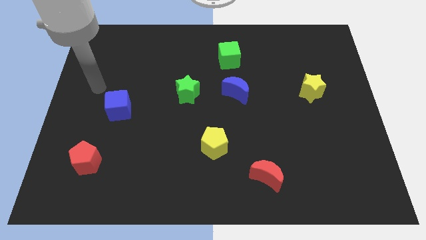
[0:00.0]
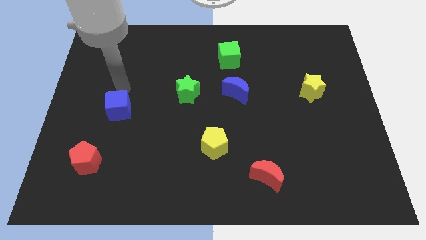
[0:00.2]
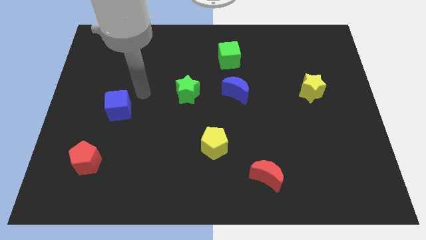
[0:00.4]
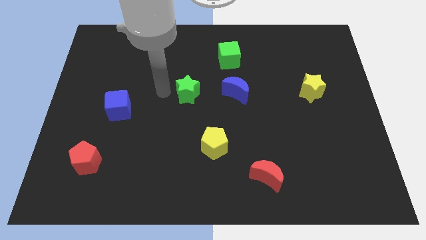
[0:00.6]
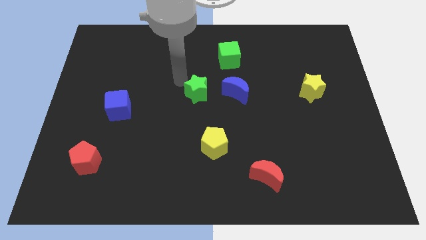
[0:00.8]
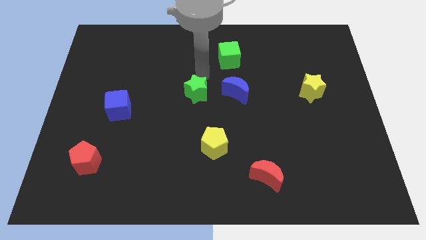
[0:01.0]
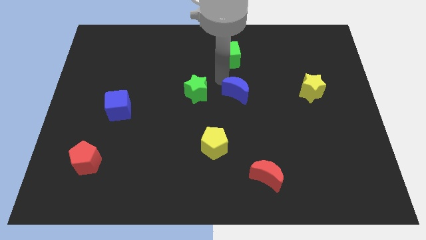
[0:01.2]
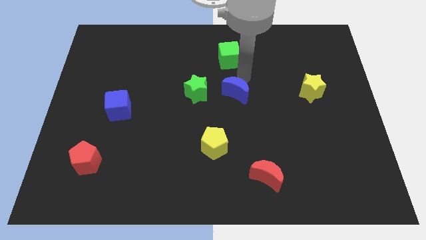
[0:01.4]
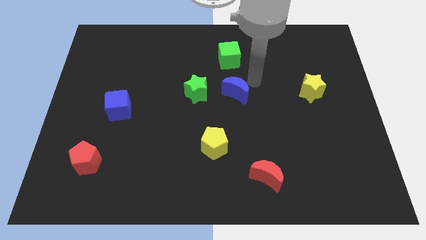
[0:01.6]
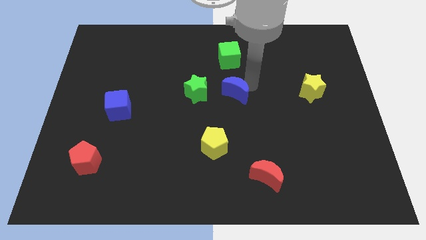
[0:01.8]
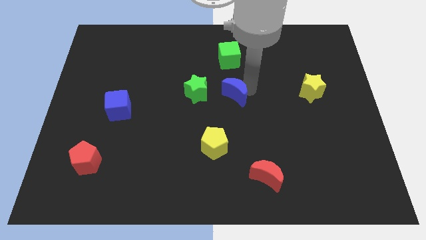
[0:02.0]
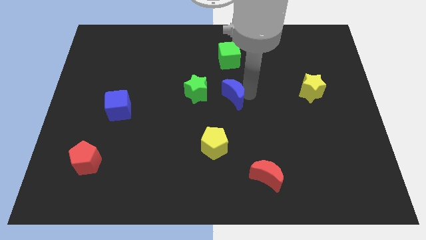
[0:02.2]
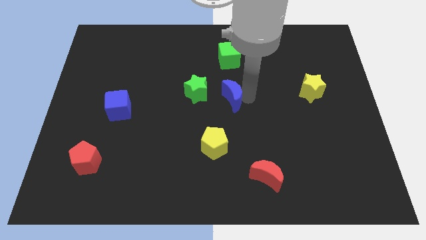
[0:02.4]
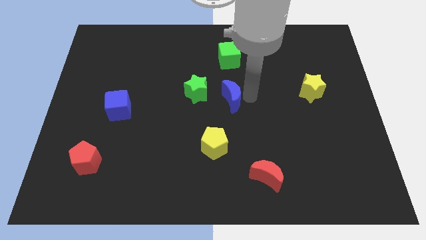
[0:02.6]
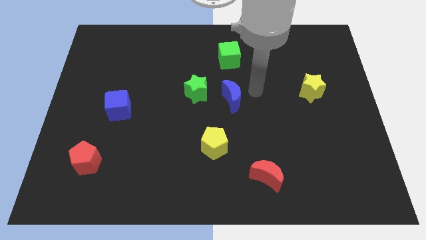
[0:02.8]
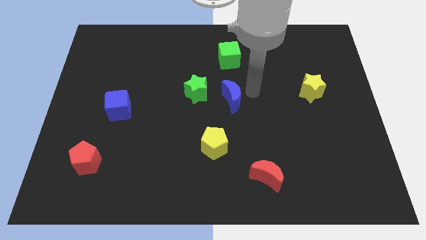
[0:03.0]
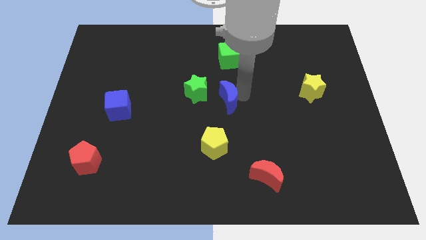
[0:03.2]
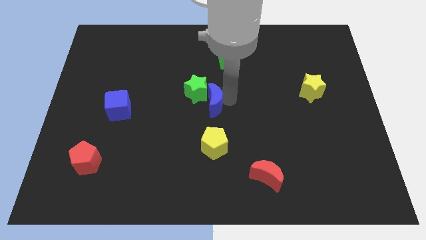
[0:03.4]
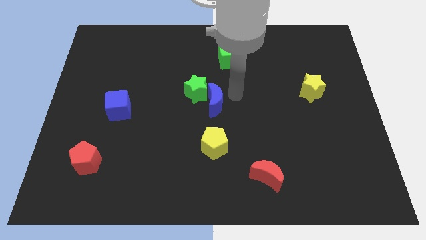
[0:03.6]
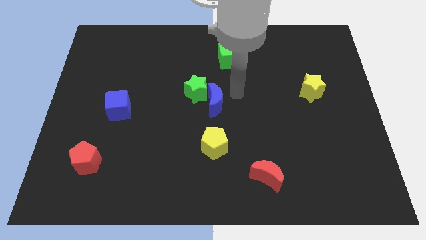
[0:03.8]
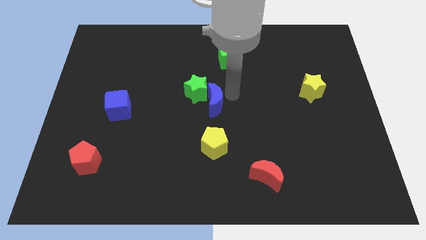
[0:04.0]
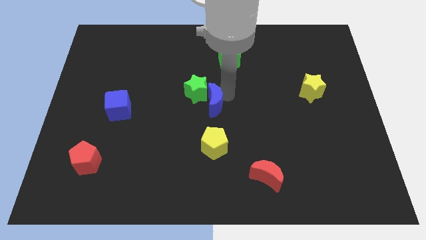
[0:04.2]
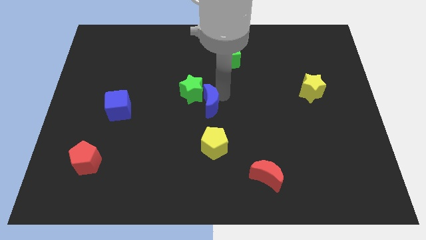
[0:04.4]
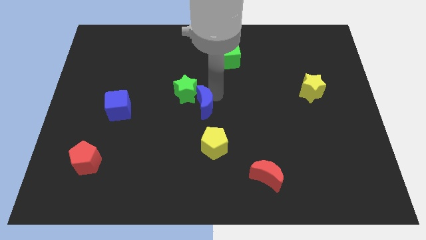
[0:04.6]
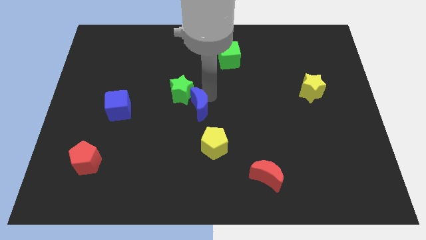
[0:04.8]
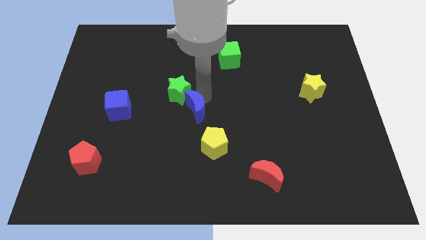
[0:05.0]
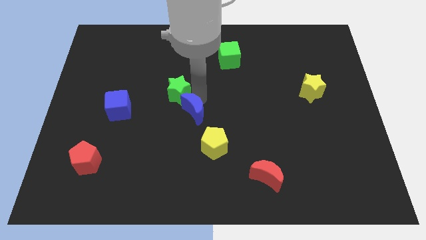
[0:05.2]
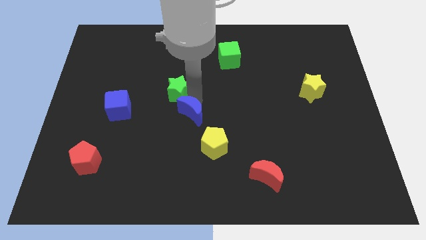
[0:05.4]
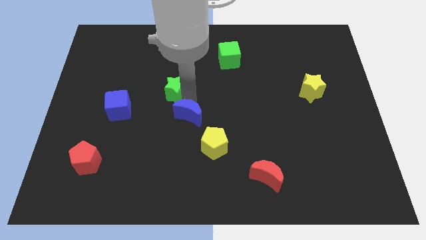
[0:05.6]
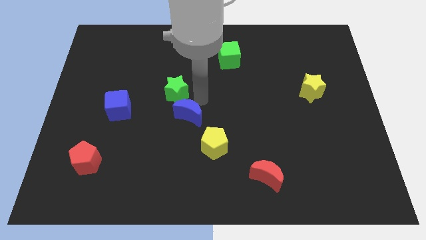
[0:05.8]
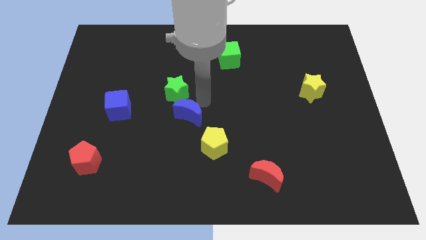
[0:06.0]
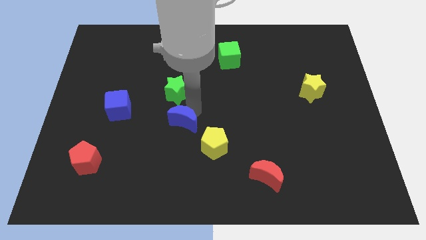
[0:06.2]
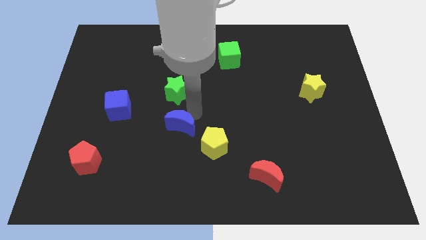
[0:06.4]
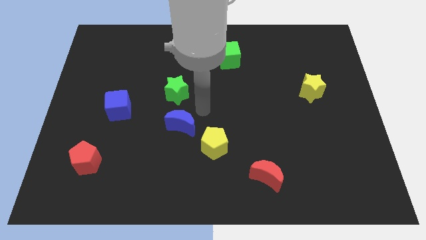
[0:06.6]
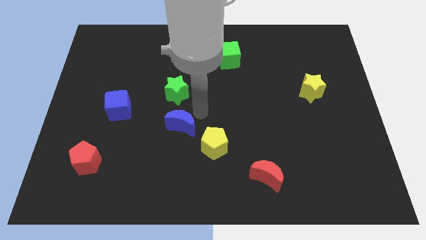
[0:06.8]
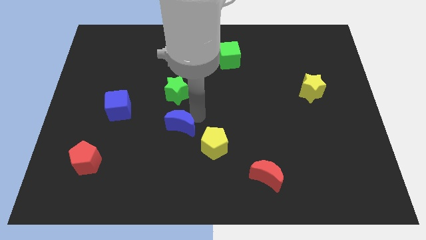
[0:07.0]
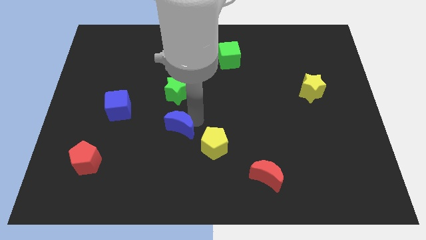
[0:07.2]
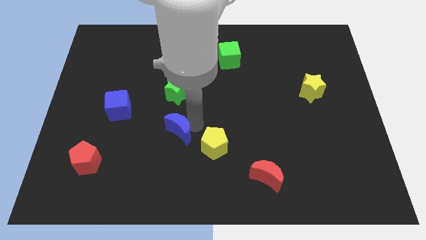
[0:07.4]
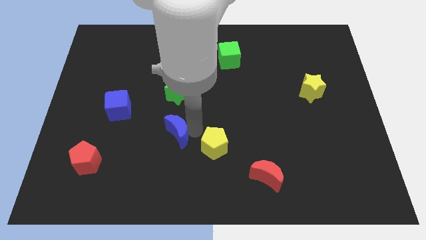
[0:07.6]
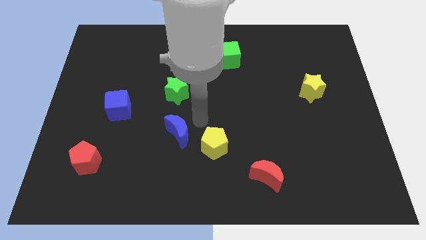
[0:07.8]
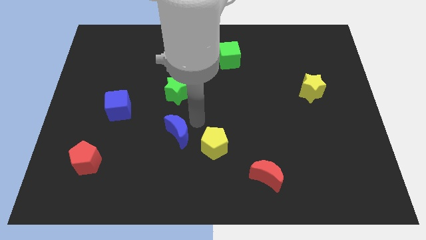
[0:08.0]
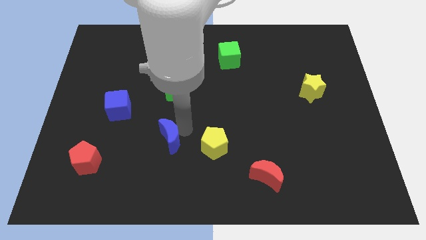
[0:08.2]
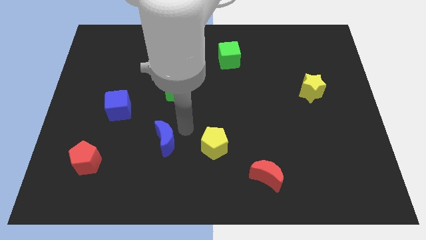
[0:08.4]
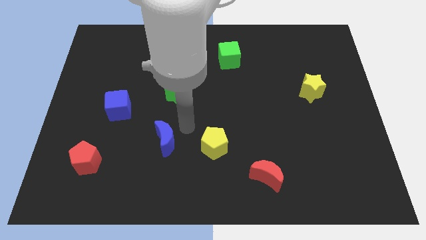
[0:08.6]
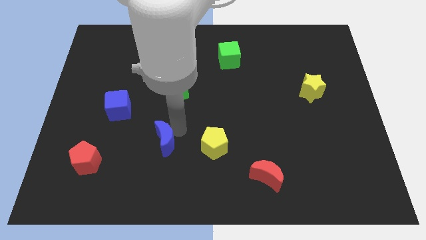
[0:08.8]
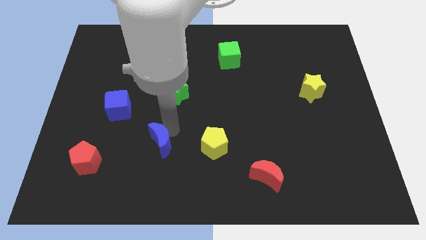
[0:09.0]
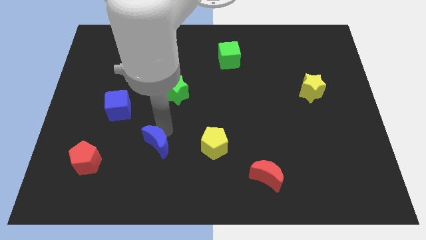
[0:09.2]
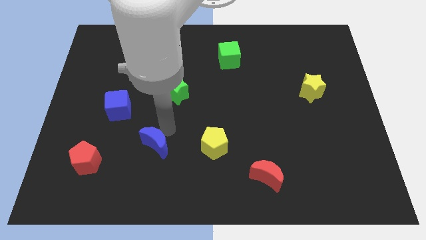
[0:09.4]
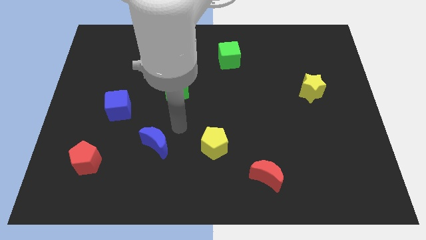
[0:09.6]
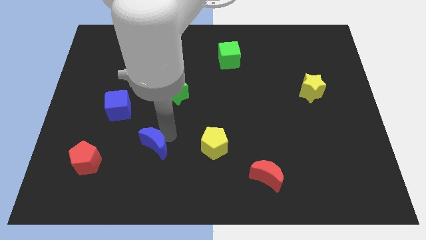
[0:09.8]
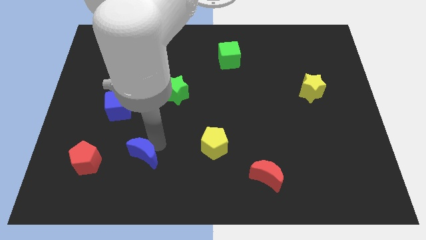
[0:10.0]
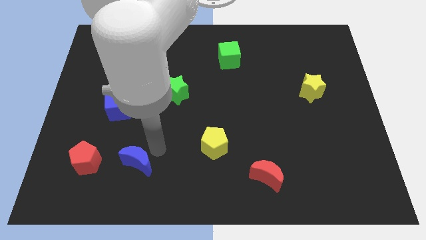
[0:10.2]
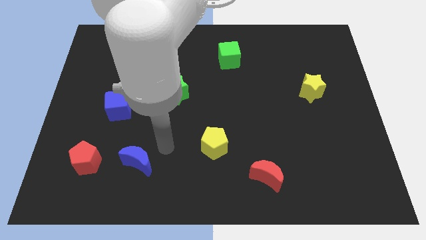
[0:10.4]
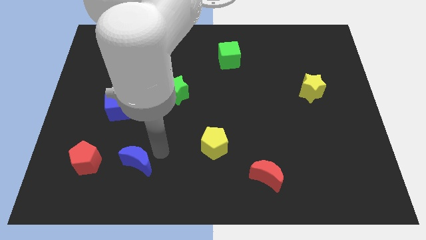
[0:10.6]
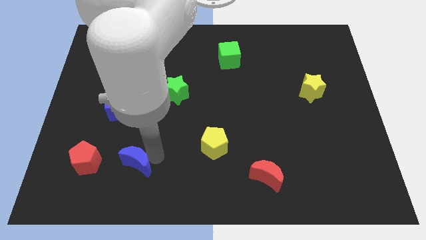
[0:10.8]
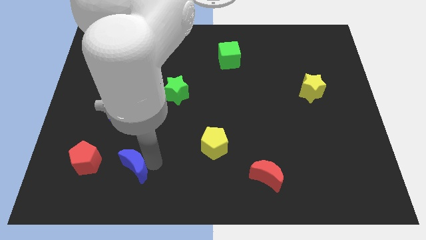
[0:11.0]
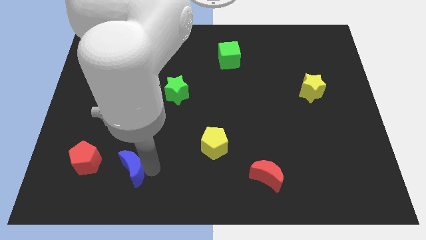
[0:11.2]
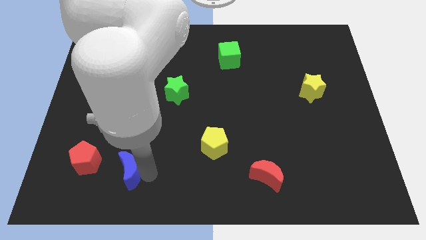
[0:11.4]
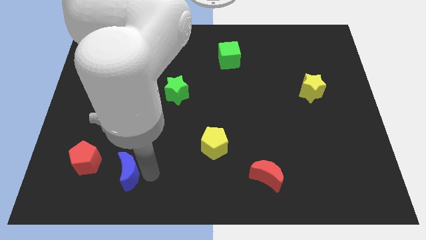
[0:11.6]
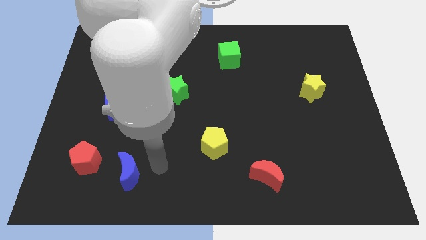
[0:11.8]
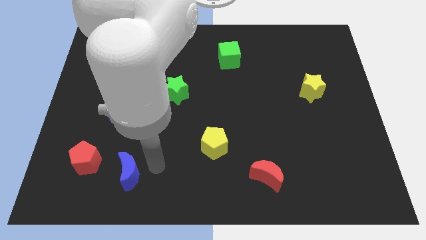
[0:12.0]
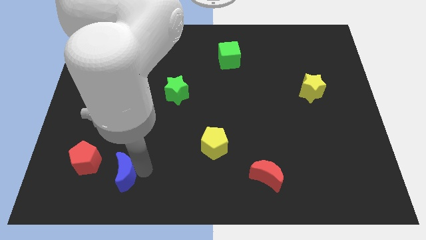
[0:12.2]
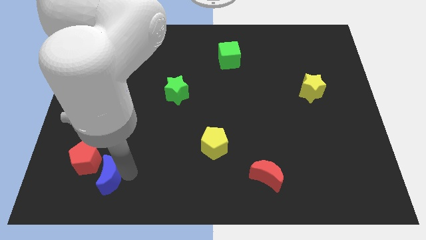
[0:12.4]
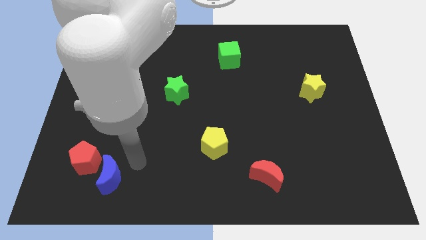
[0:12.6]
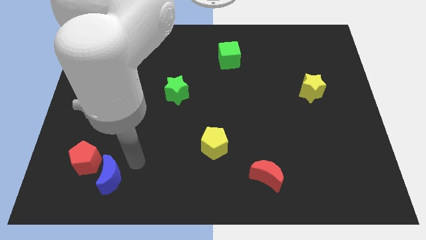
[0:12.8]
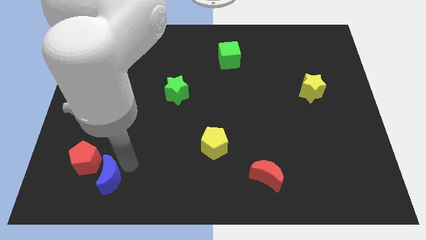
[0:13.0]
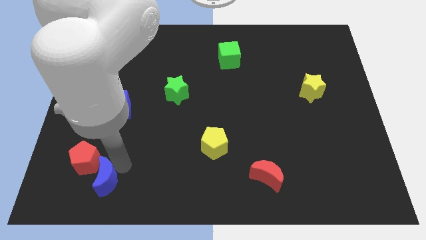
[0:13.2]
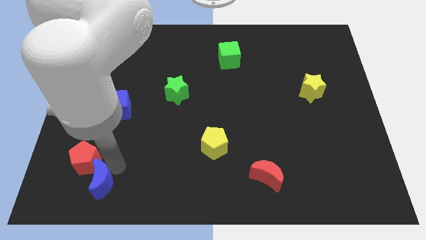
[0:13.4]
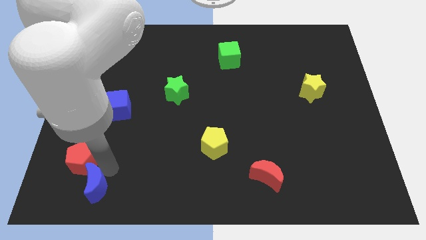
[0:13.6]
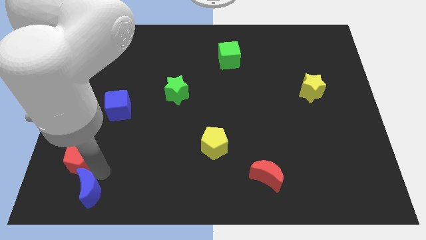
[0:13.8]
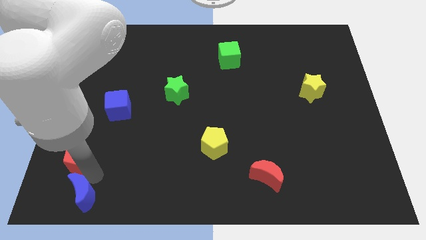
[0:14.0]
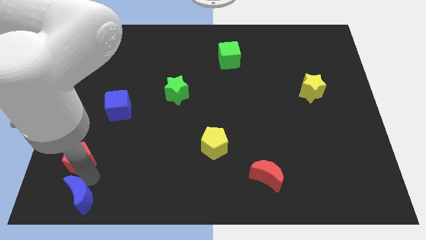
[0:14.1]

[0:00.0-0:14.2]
push the blue moon to the bottom left corner
